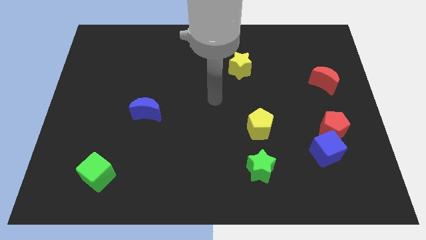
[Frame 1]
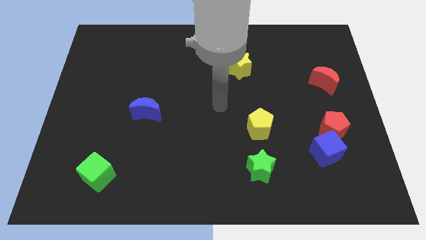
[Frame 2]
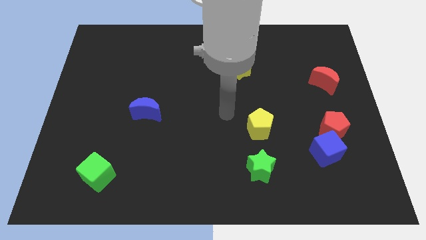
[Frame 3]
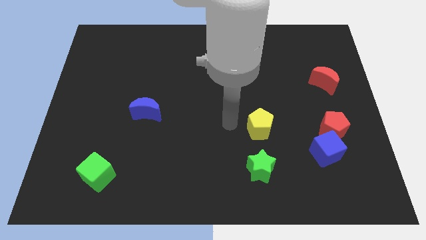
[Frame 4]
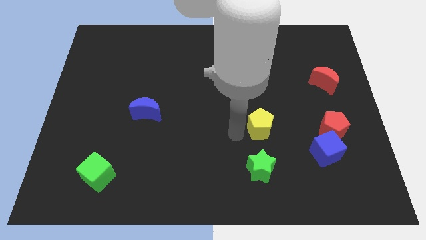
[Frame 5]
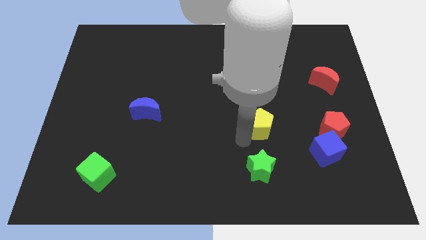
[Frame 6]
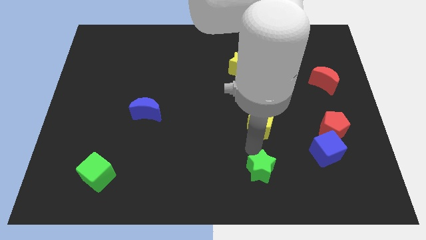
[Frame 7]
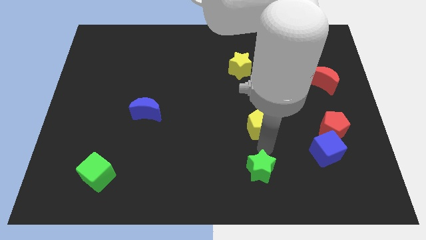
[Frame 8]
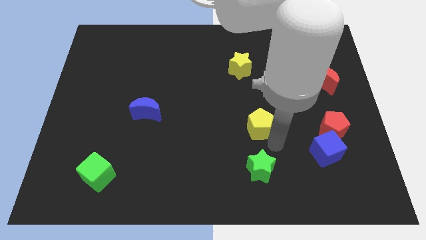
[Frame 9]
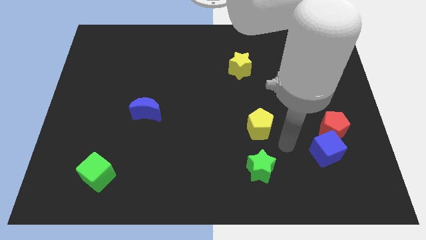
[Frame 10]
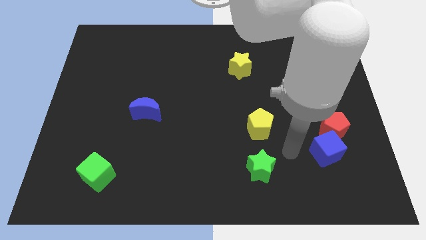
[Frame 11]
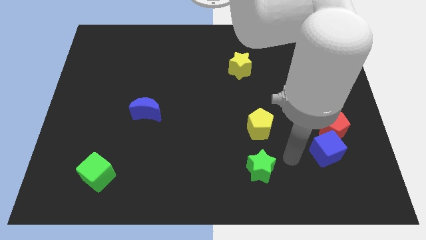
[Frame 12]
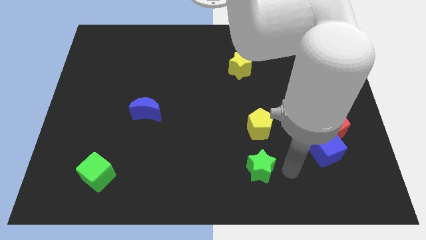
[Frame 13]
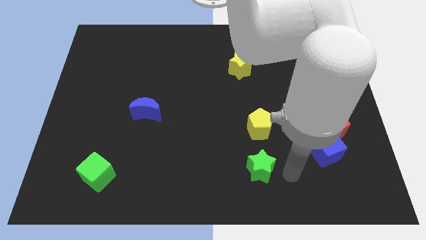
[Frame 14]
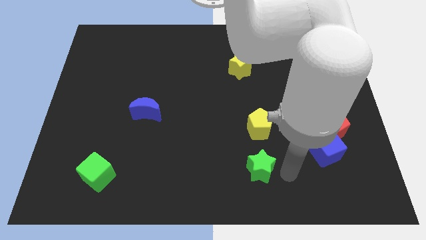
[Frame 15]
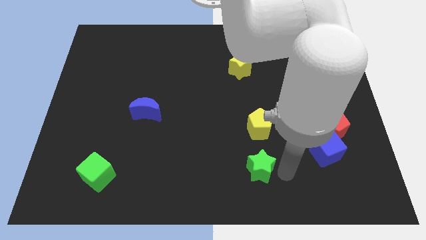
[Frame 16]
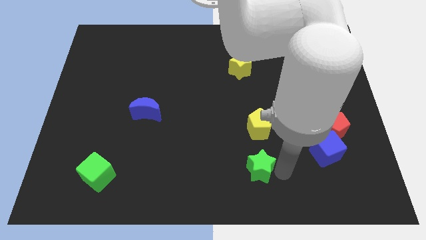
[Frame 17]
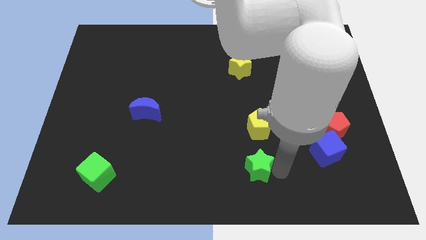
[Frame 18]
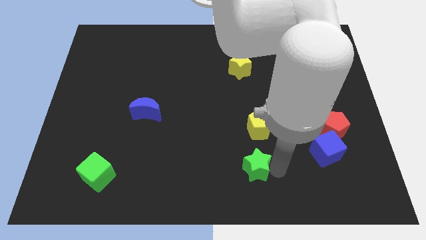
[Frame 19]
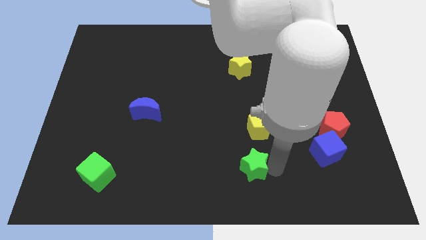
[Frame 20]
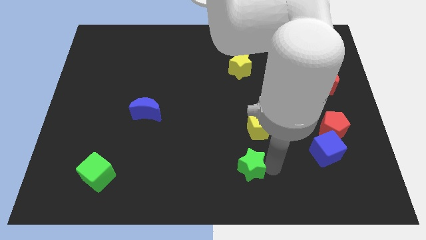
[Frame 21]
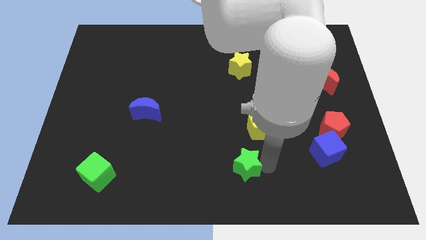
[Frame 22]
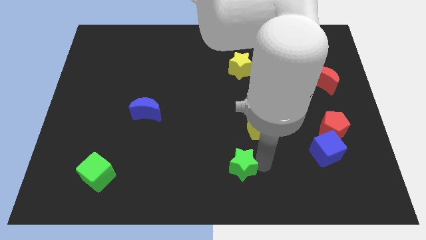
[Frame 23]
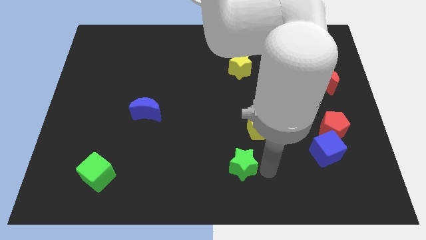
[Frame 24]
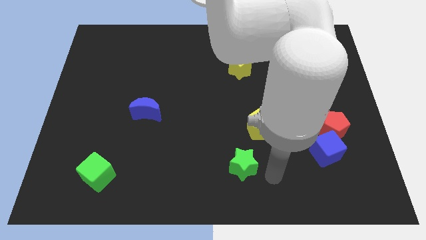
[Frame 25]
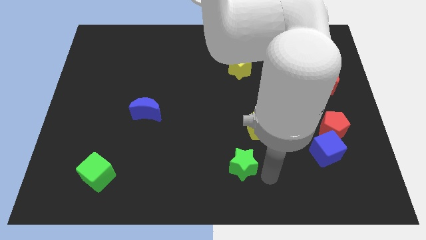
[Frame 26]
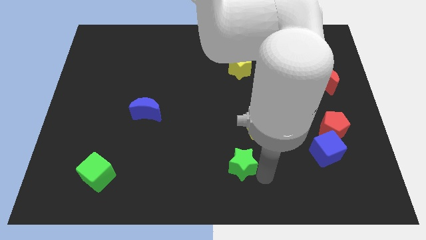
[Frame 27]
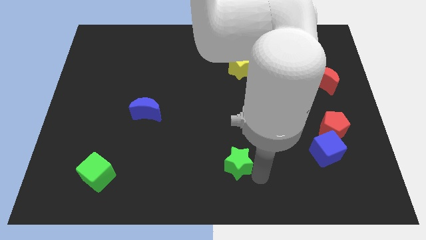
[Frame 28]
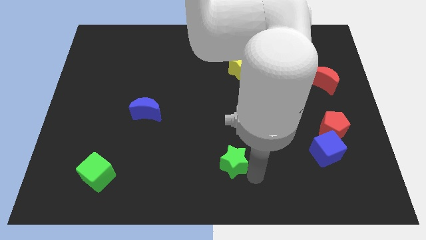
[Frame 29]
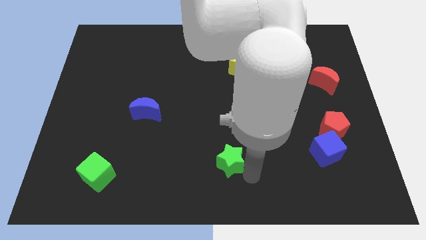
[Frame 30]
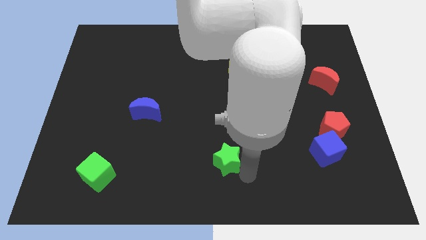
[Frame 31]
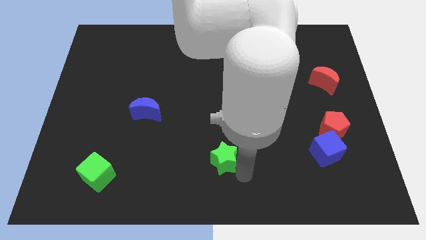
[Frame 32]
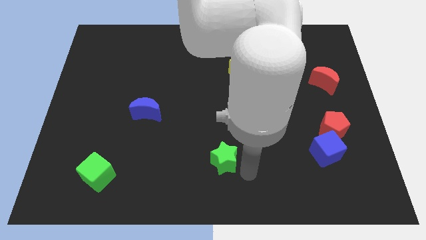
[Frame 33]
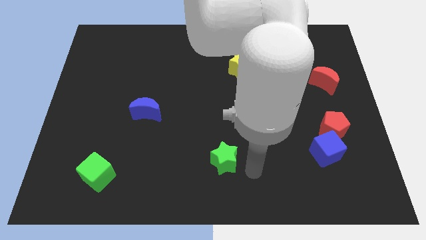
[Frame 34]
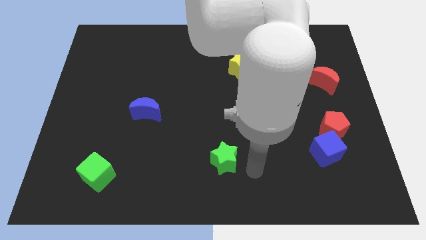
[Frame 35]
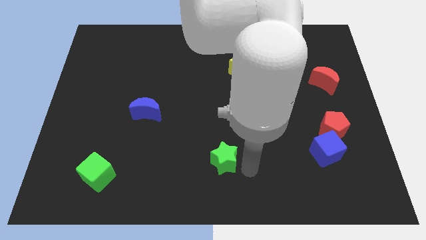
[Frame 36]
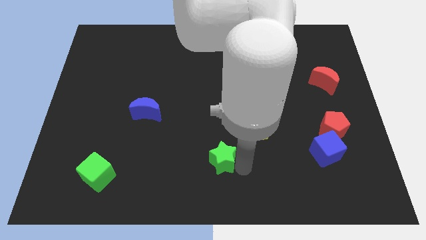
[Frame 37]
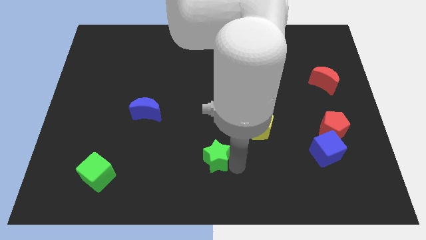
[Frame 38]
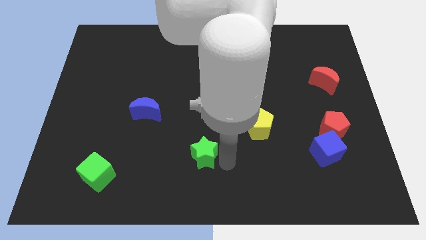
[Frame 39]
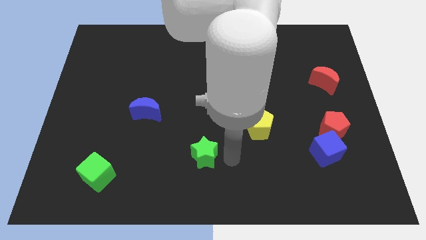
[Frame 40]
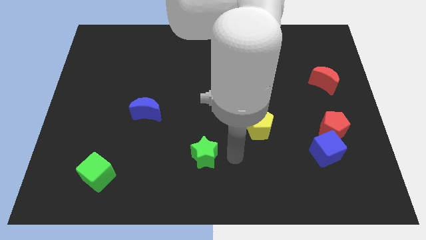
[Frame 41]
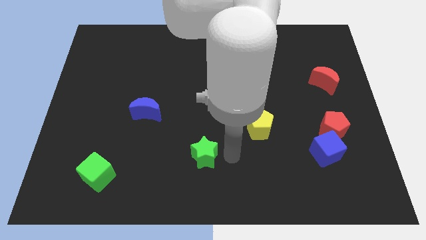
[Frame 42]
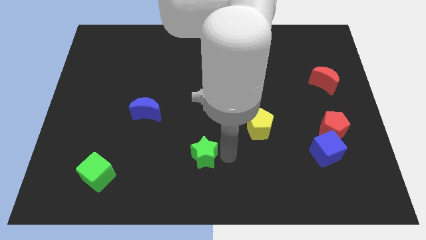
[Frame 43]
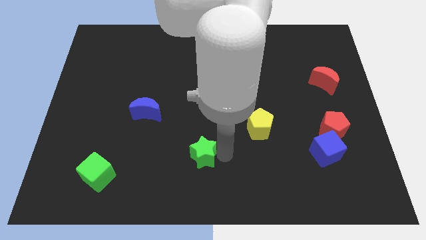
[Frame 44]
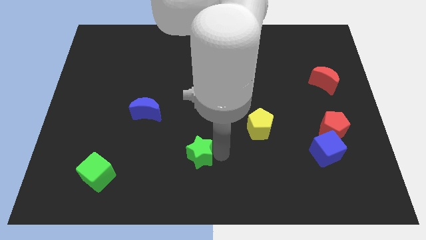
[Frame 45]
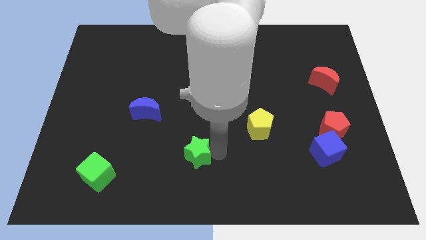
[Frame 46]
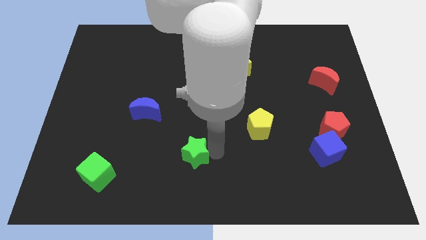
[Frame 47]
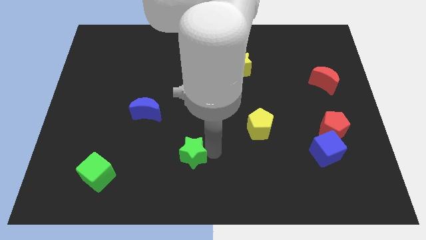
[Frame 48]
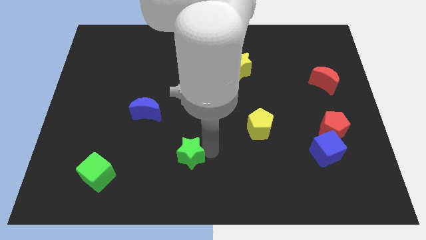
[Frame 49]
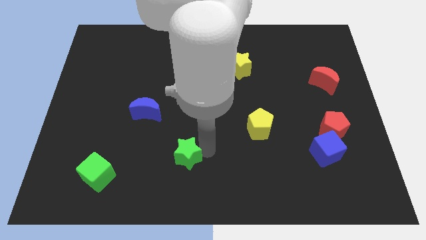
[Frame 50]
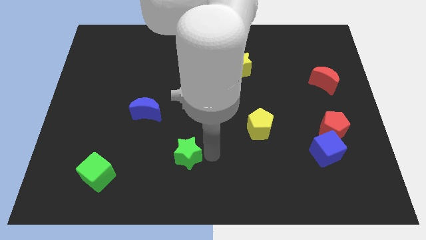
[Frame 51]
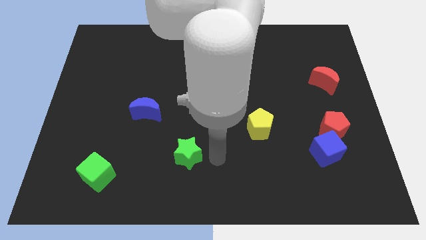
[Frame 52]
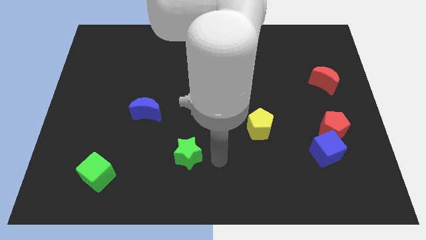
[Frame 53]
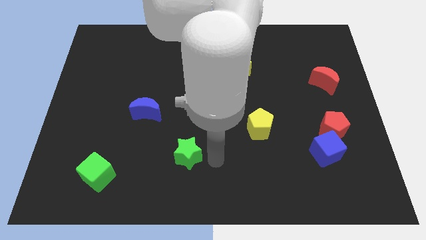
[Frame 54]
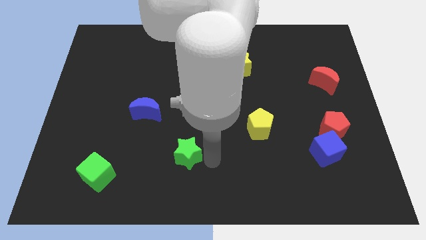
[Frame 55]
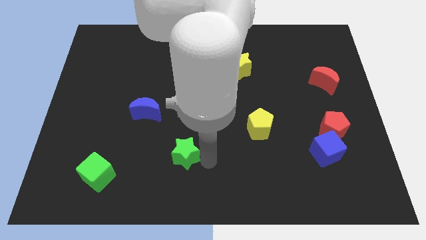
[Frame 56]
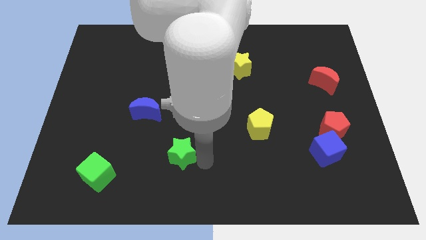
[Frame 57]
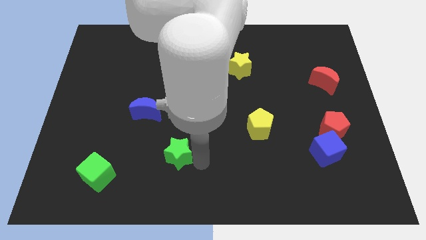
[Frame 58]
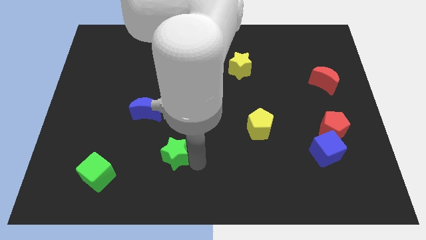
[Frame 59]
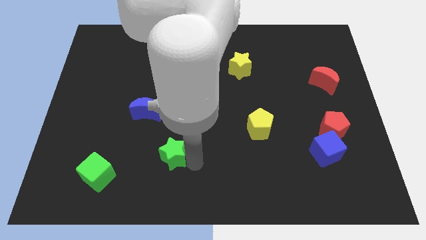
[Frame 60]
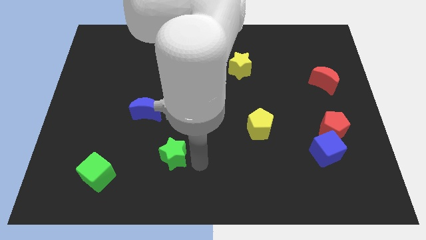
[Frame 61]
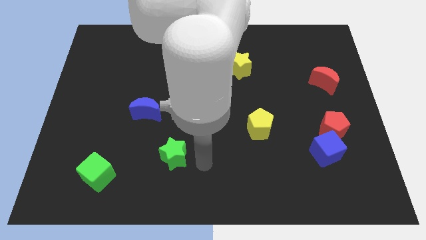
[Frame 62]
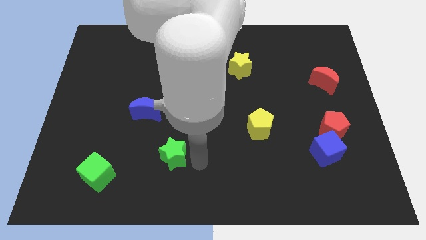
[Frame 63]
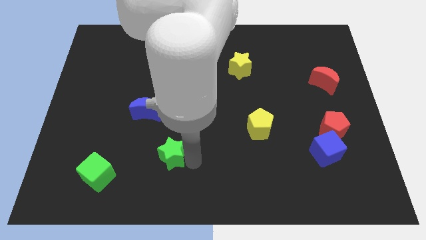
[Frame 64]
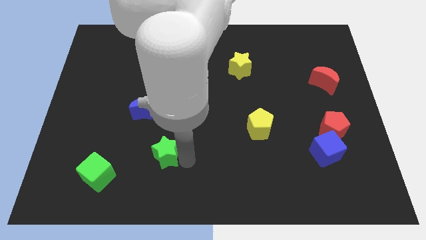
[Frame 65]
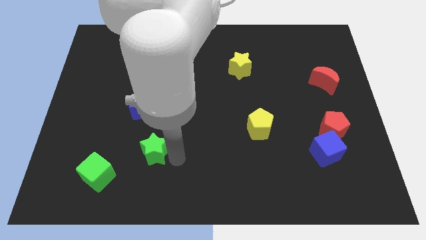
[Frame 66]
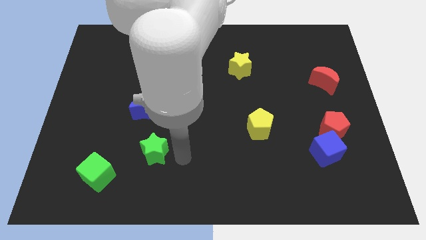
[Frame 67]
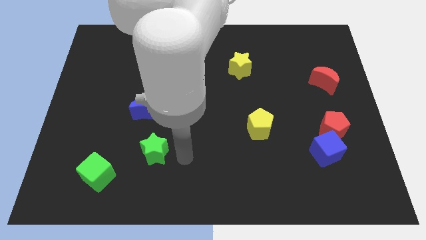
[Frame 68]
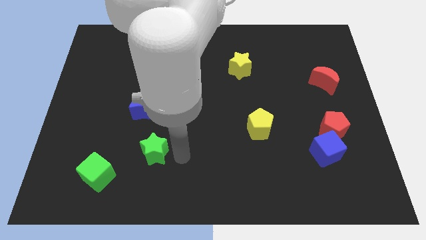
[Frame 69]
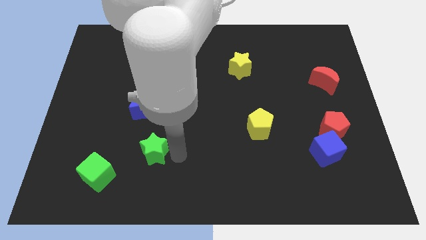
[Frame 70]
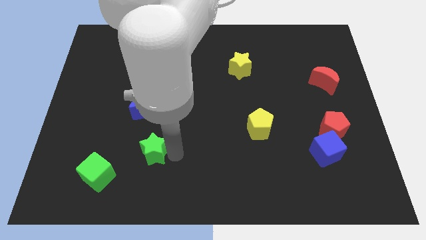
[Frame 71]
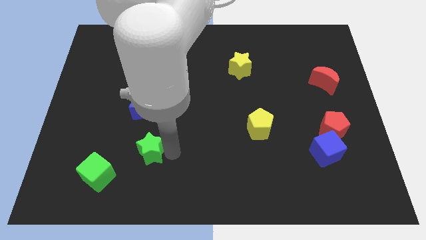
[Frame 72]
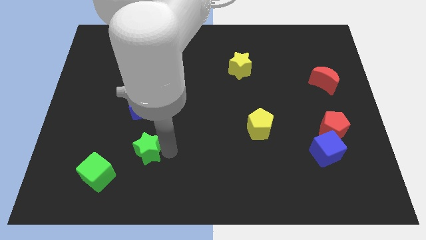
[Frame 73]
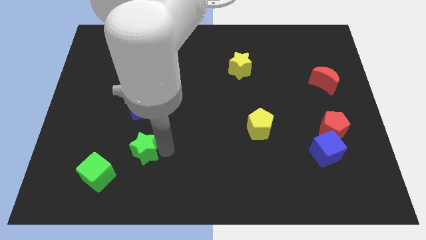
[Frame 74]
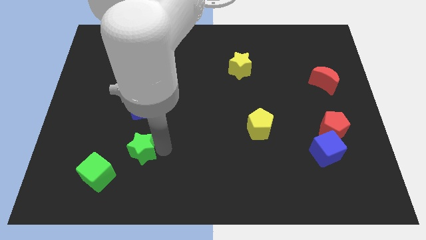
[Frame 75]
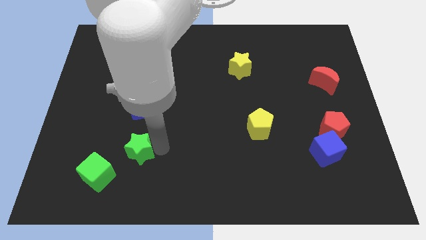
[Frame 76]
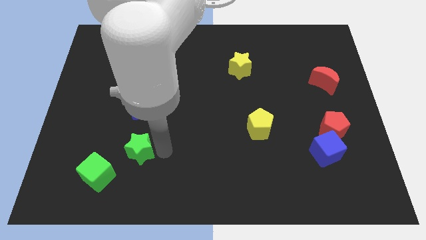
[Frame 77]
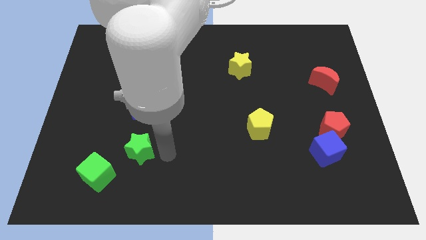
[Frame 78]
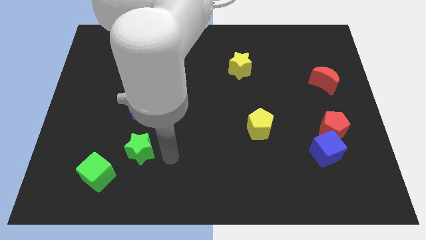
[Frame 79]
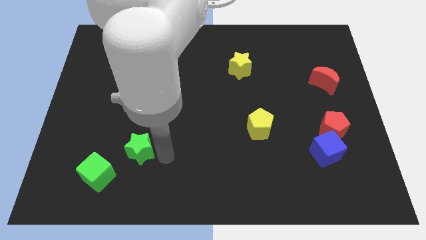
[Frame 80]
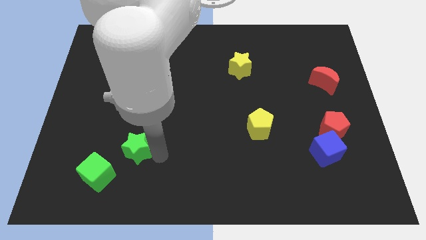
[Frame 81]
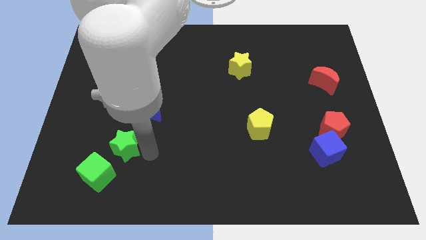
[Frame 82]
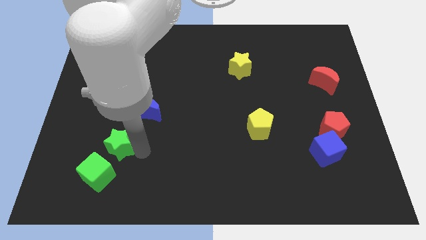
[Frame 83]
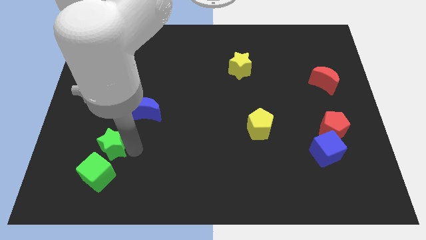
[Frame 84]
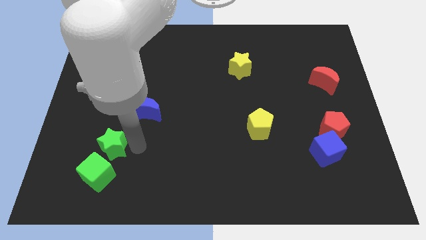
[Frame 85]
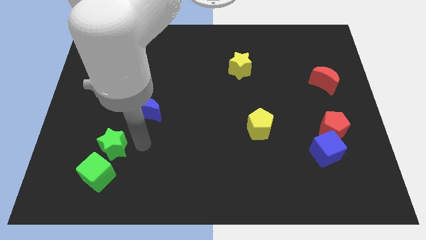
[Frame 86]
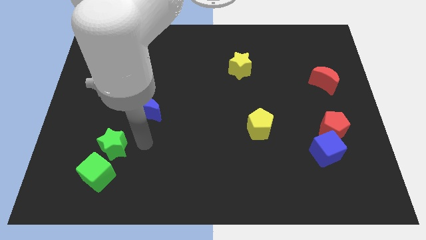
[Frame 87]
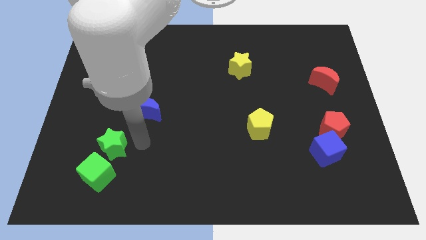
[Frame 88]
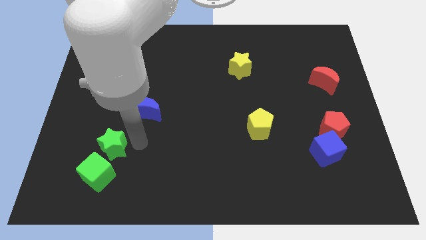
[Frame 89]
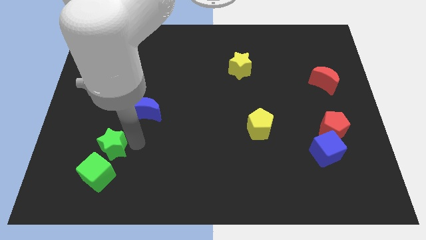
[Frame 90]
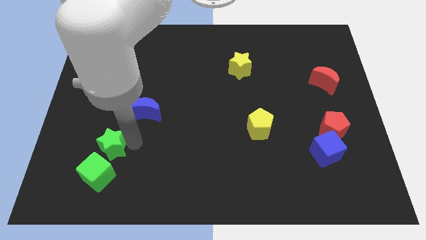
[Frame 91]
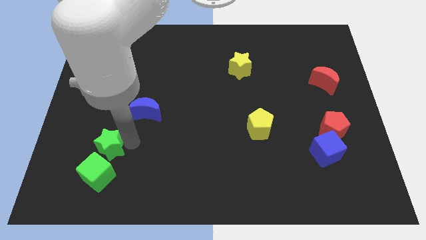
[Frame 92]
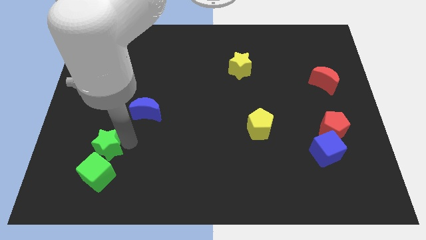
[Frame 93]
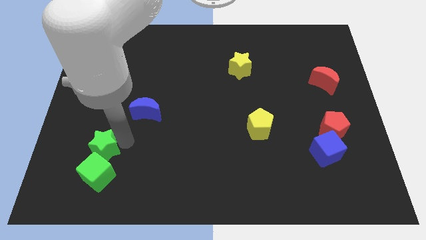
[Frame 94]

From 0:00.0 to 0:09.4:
push the green star to the top left of the green cube
